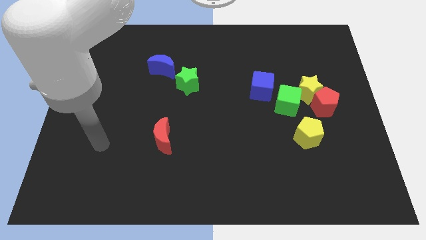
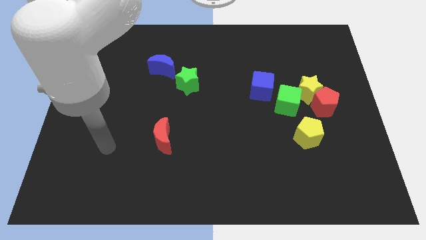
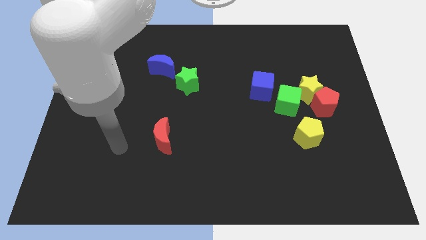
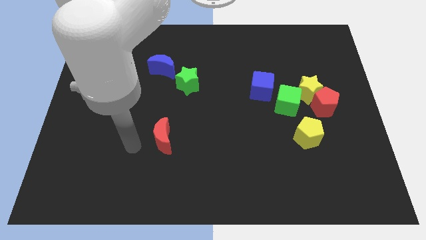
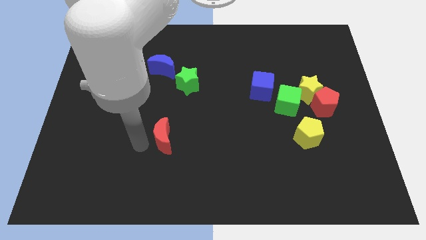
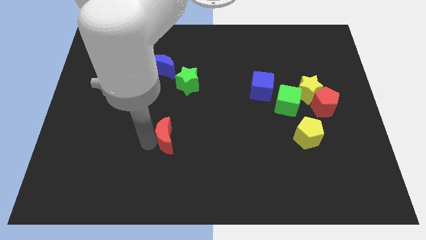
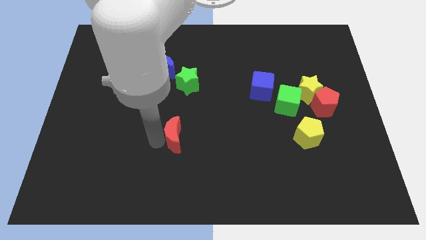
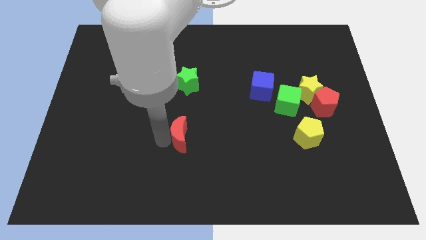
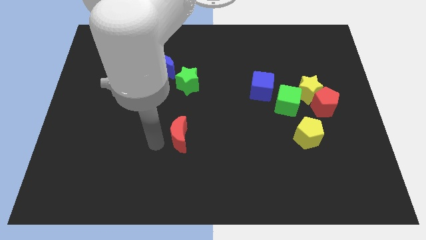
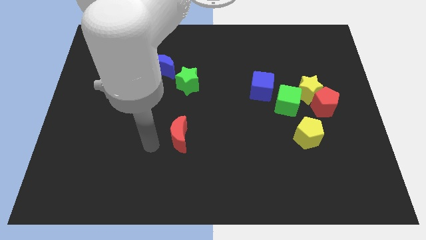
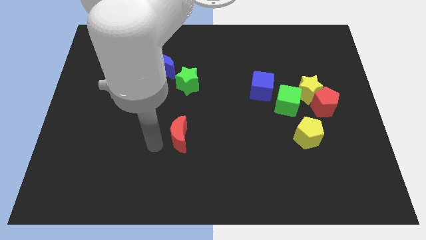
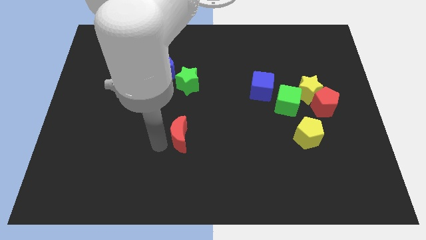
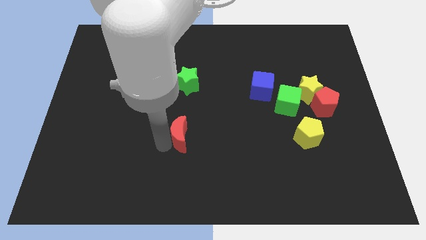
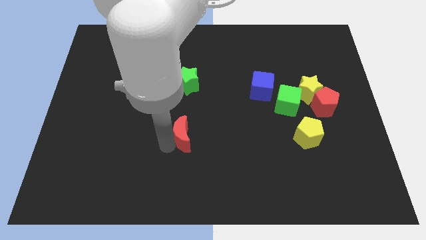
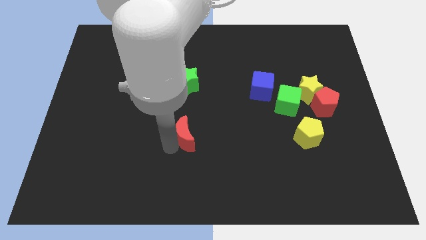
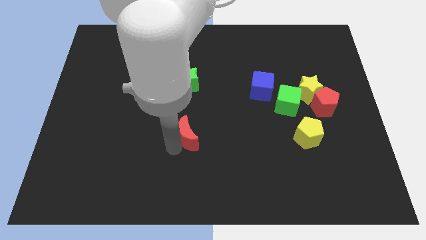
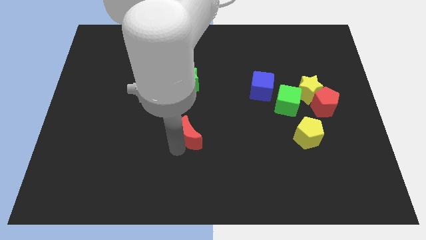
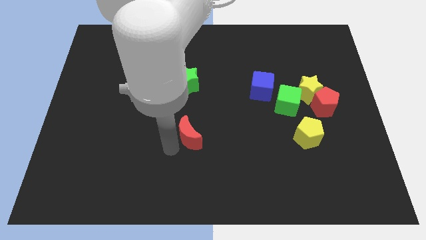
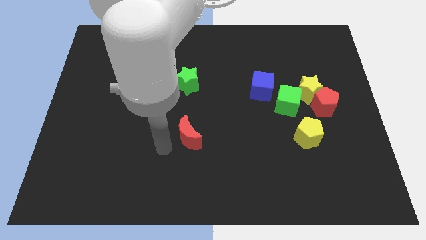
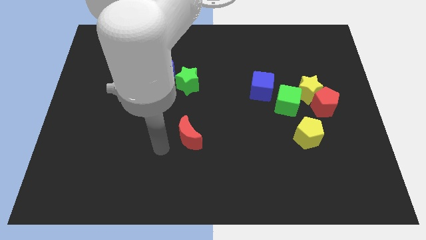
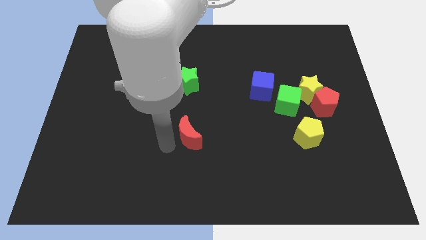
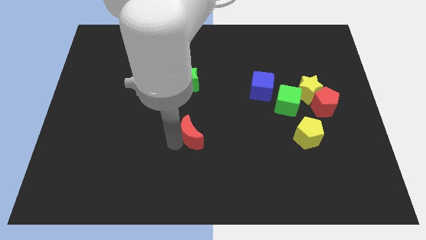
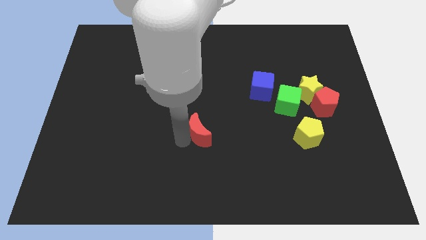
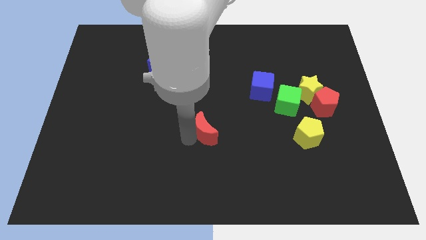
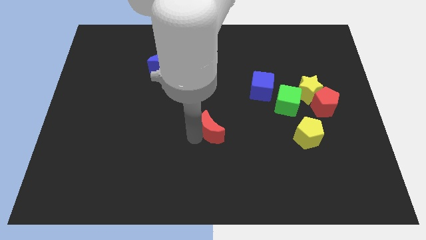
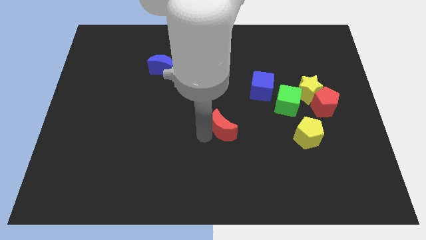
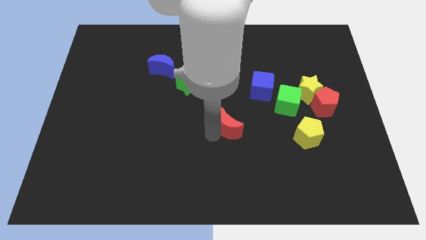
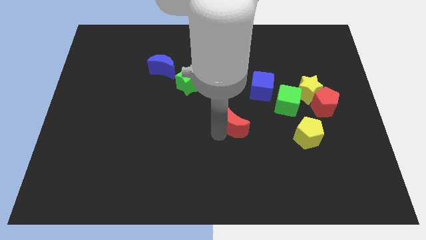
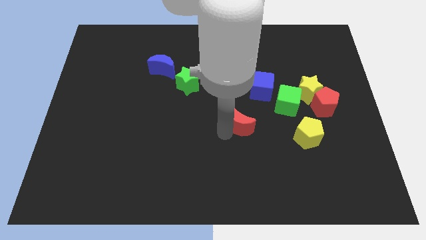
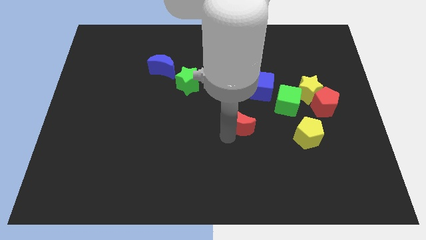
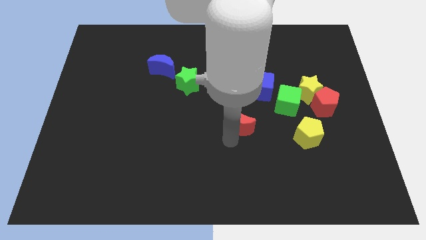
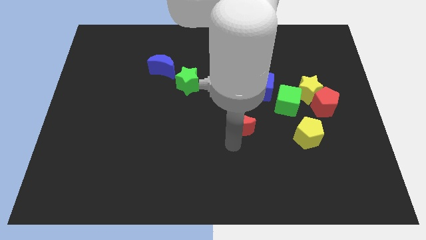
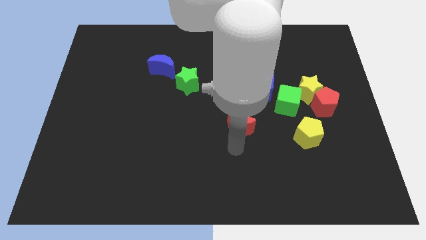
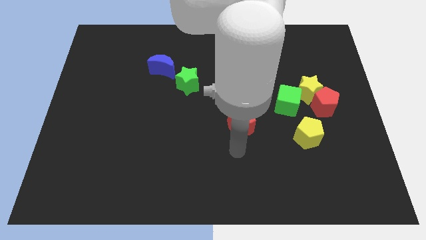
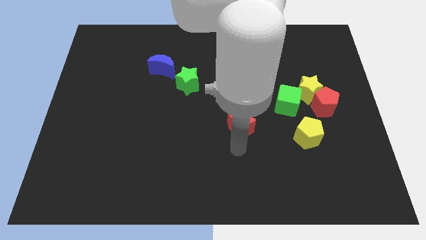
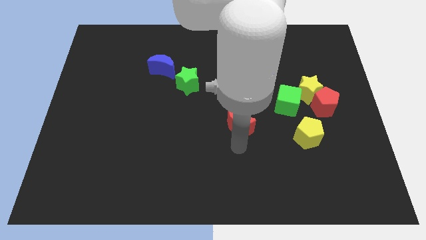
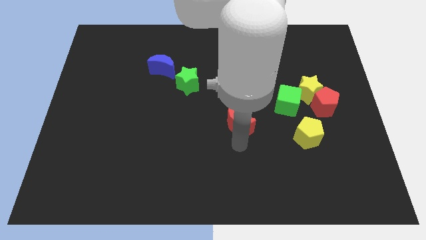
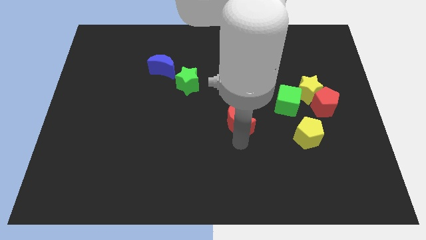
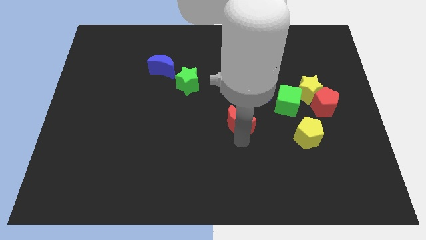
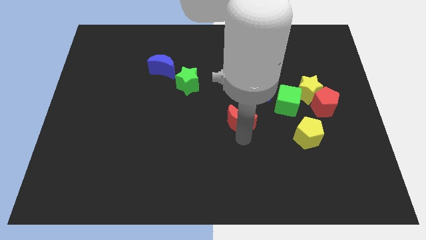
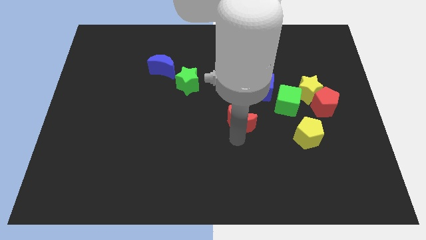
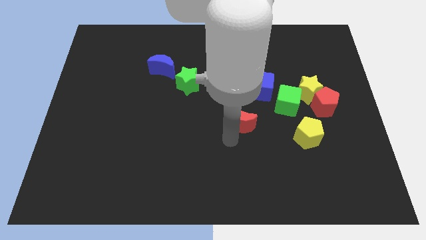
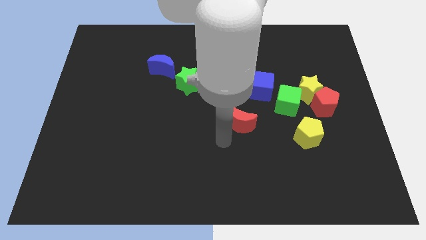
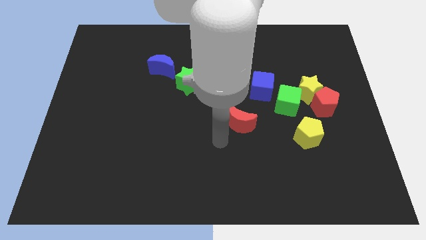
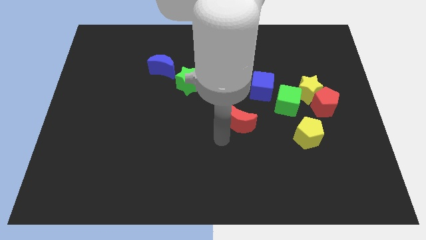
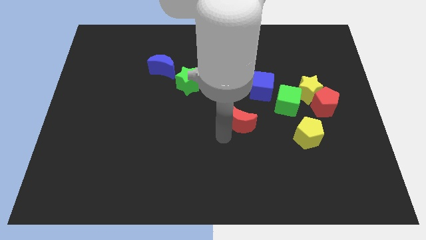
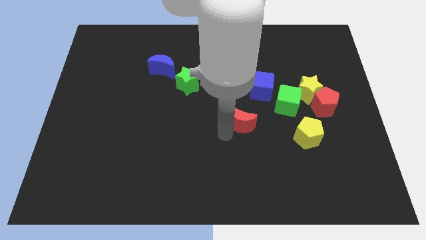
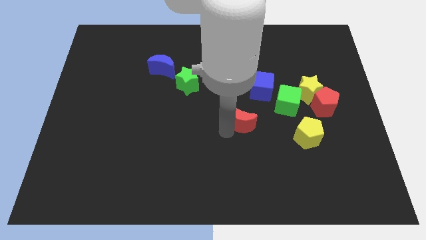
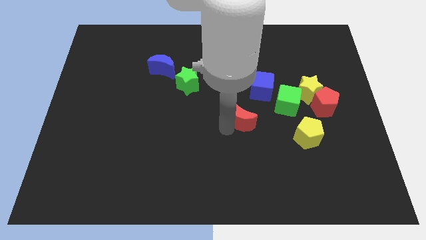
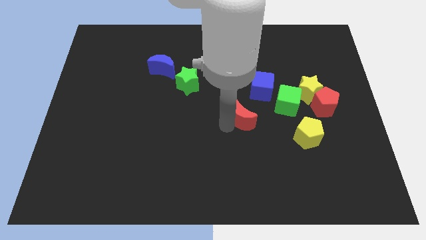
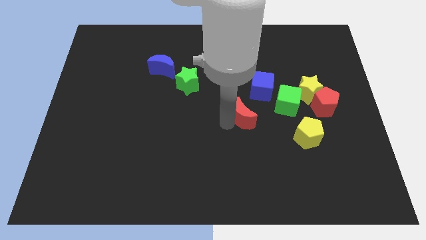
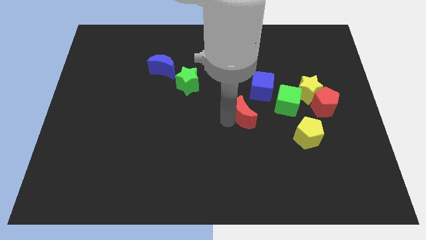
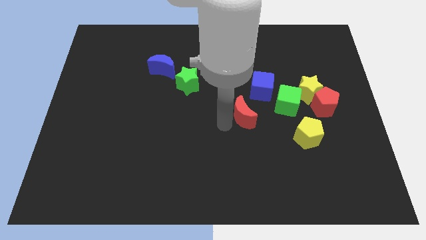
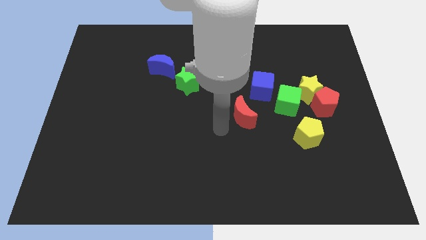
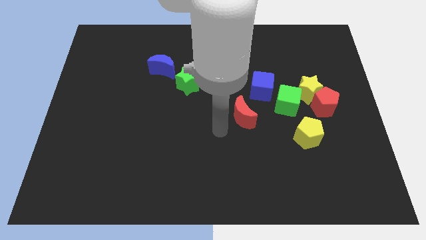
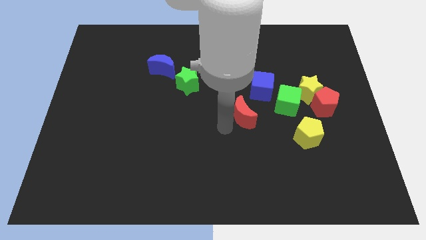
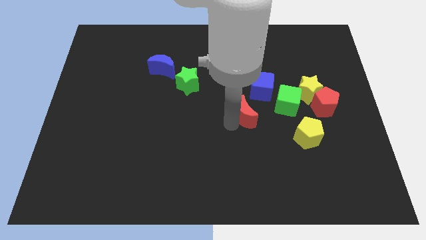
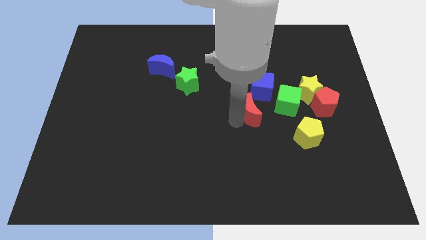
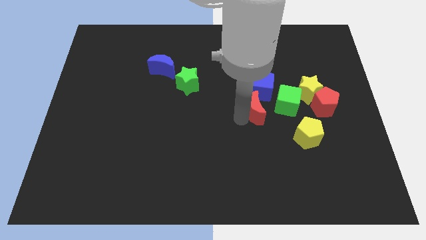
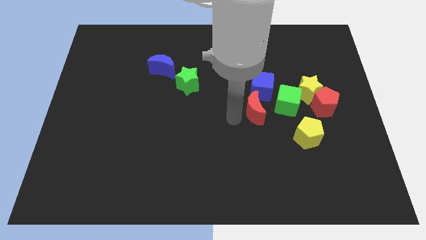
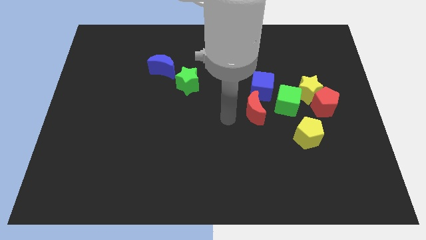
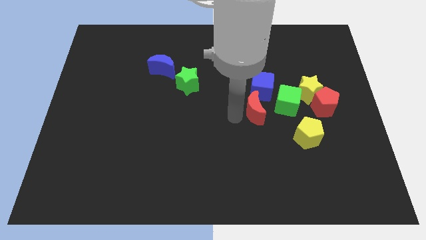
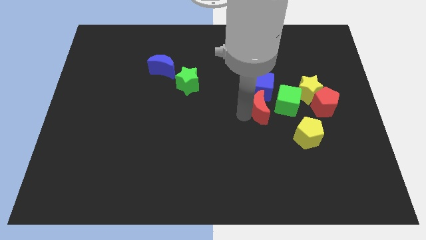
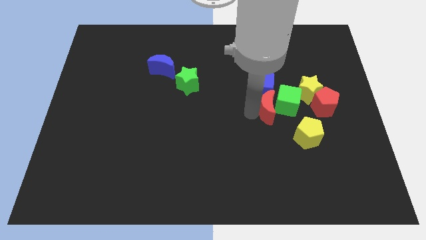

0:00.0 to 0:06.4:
put the red moon towards the green cube

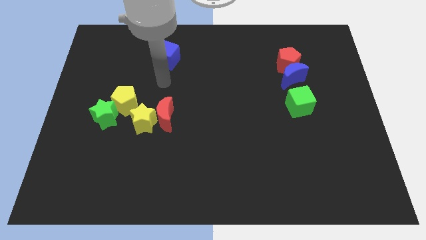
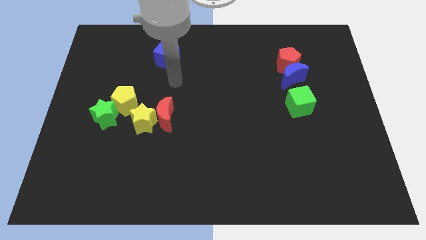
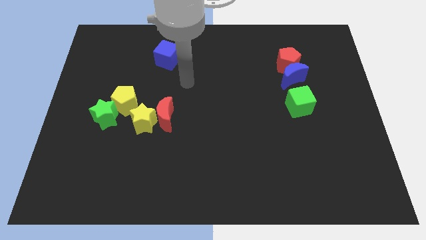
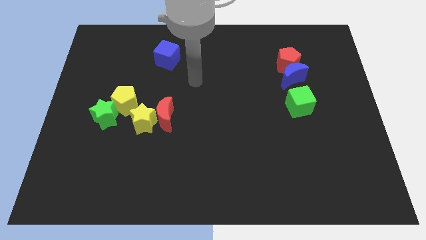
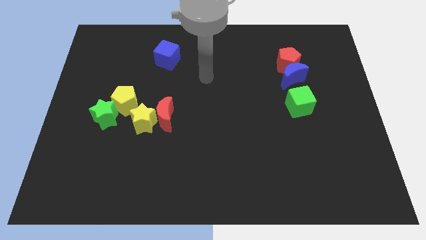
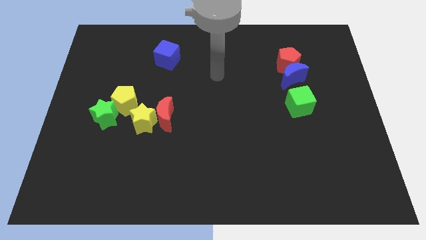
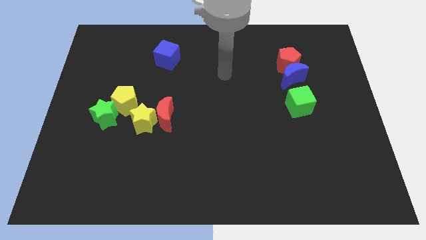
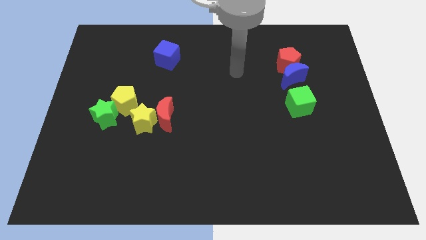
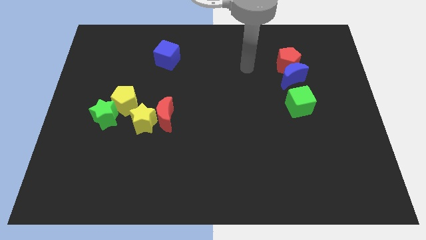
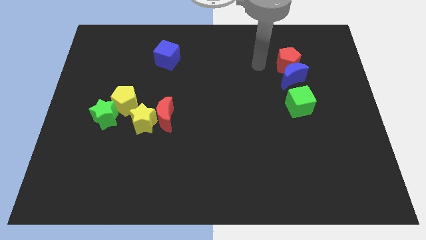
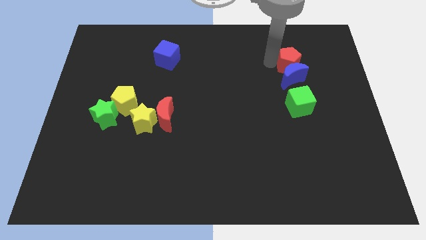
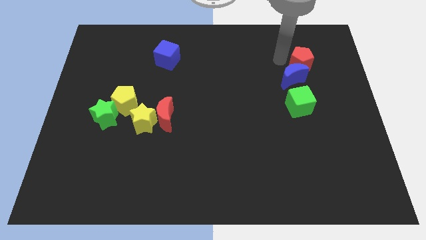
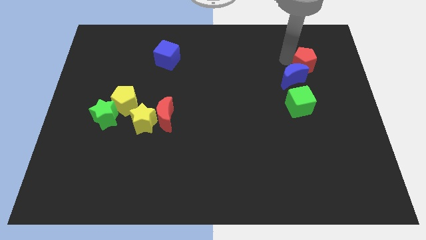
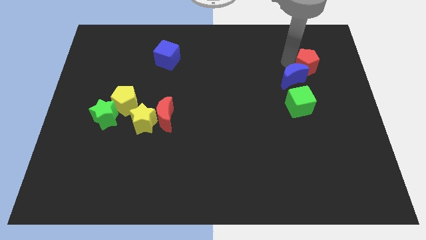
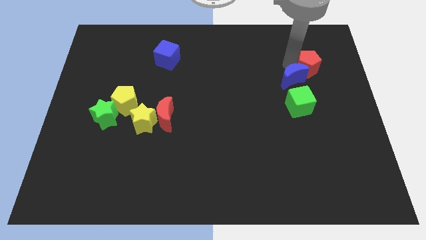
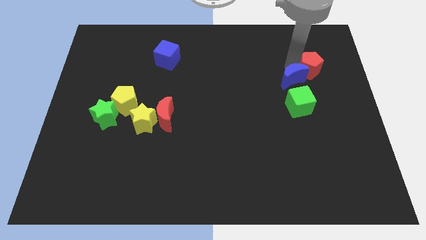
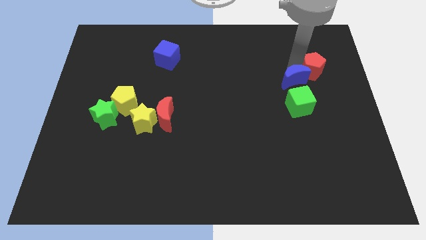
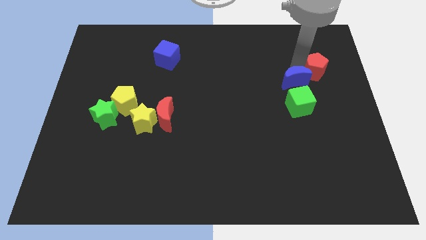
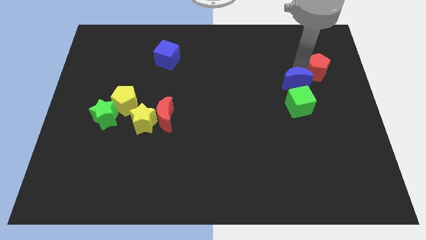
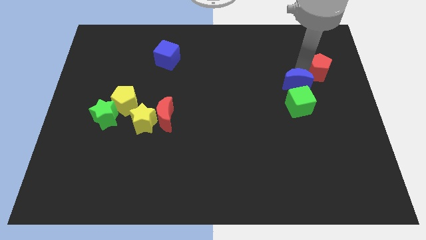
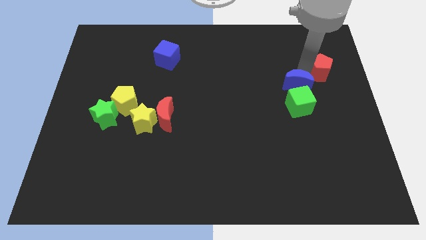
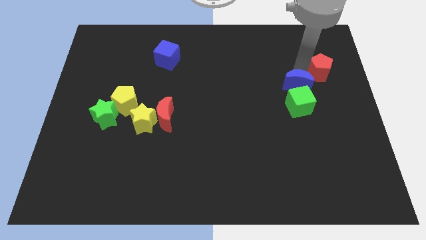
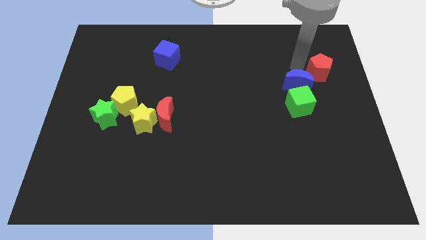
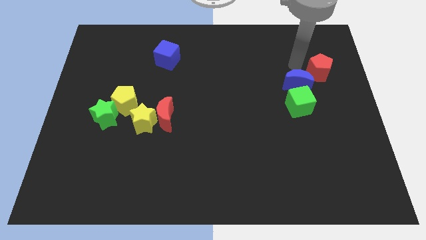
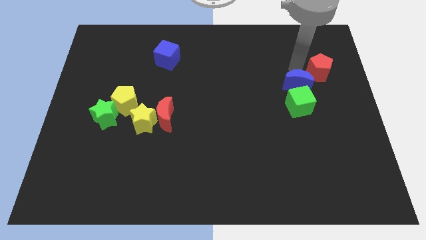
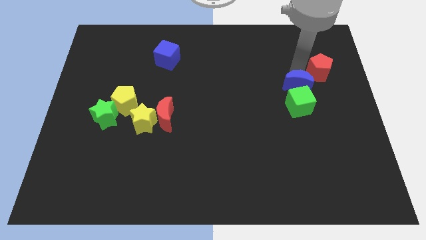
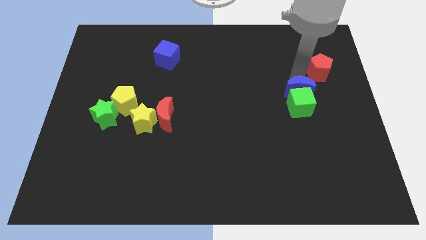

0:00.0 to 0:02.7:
put the blue moon towards the green cube
